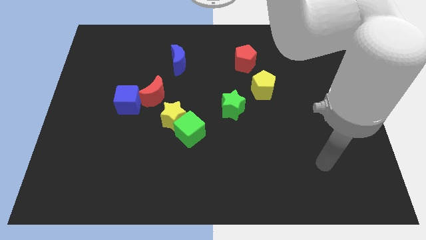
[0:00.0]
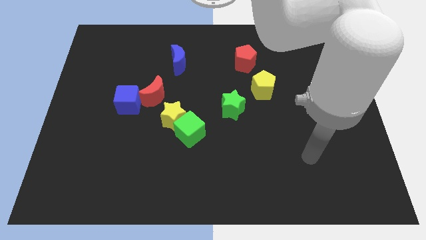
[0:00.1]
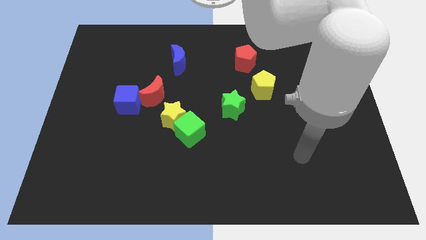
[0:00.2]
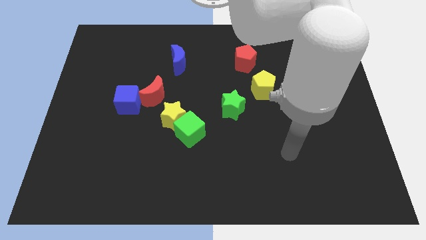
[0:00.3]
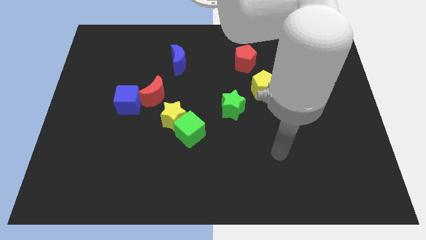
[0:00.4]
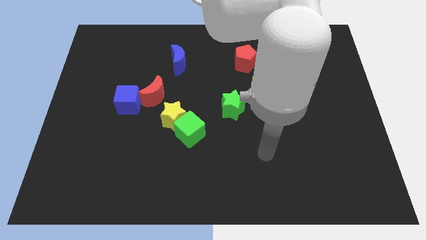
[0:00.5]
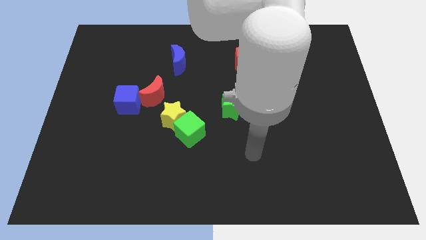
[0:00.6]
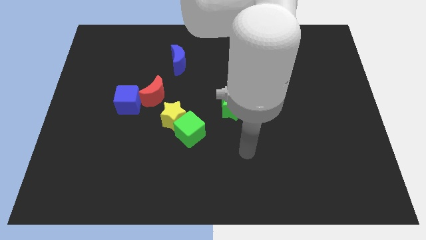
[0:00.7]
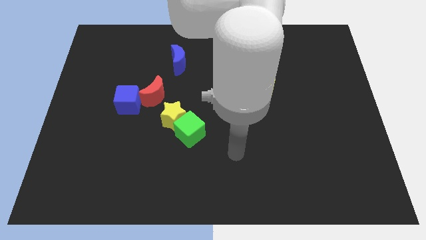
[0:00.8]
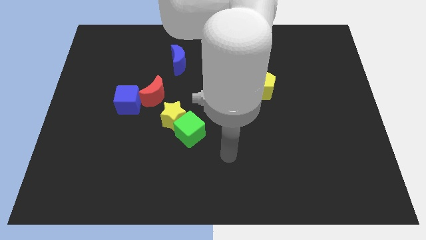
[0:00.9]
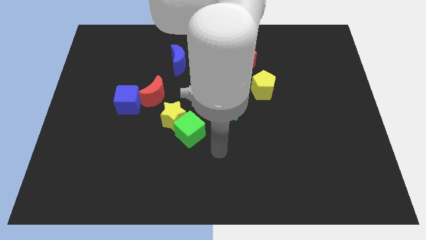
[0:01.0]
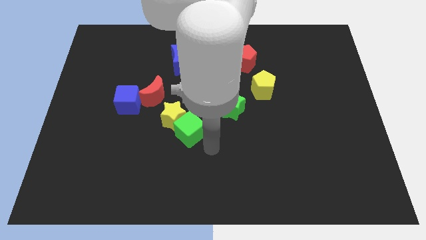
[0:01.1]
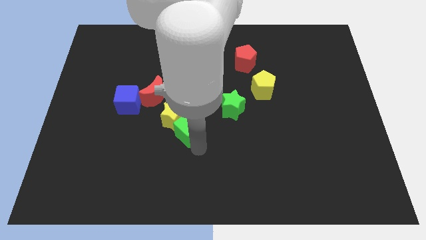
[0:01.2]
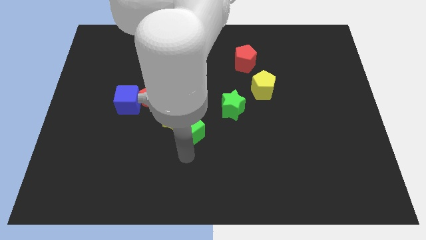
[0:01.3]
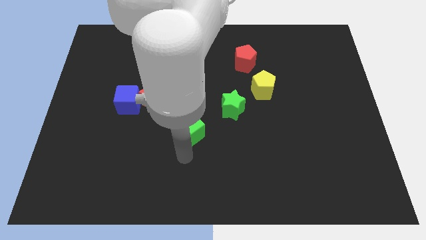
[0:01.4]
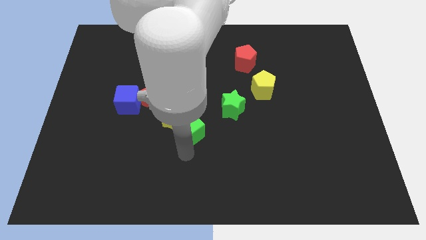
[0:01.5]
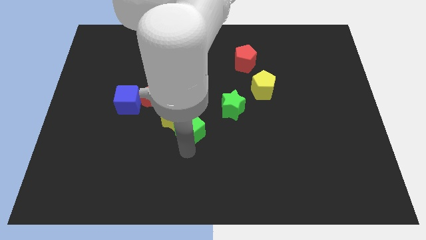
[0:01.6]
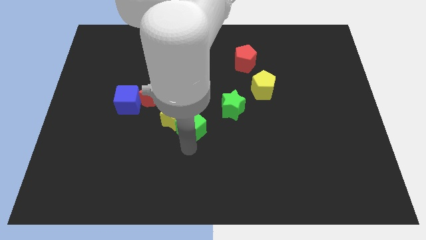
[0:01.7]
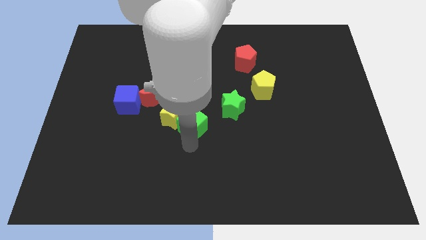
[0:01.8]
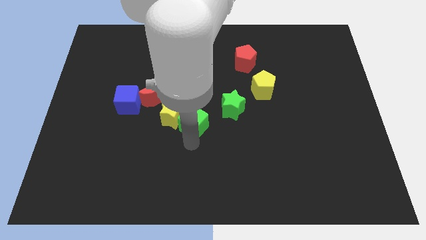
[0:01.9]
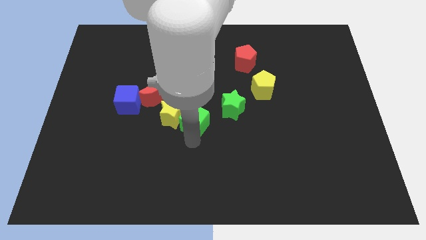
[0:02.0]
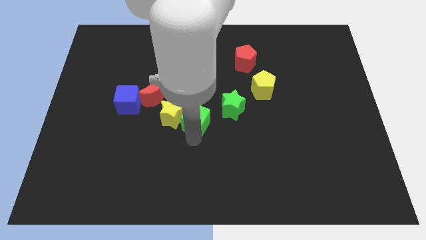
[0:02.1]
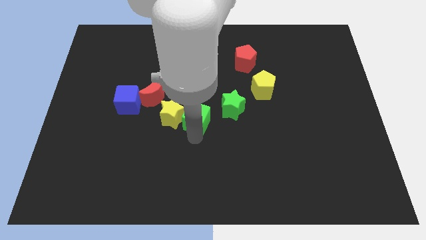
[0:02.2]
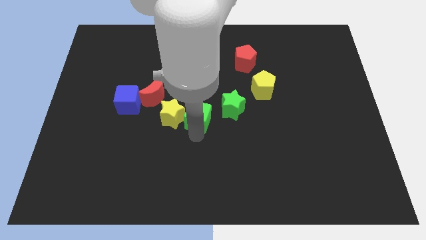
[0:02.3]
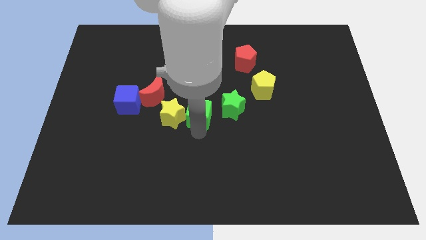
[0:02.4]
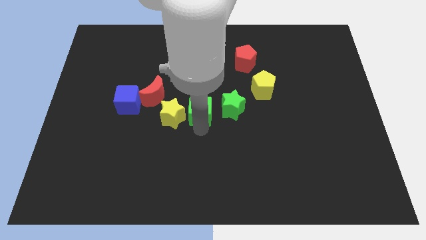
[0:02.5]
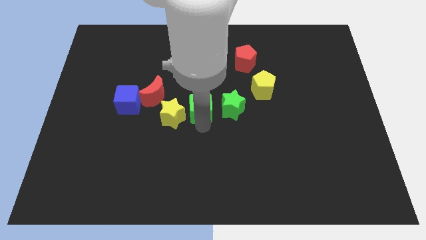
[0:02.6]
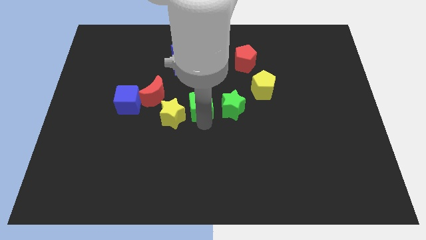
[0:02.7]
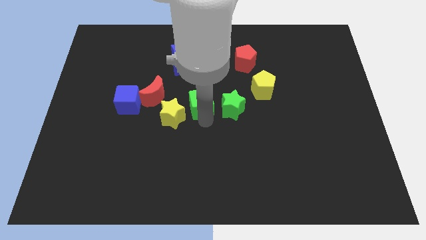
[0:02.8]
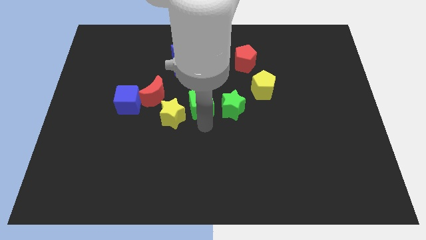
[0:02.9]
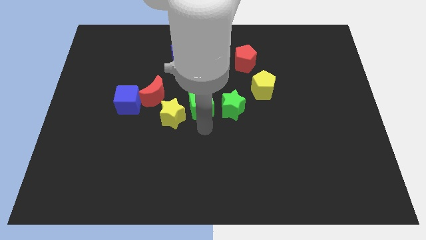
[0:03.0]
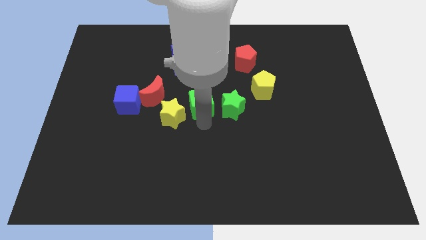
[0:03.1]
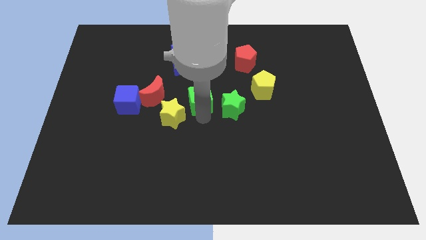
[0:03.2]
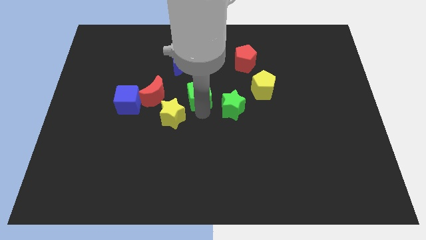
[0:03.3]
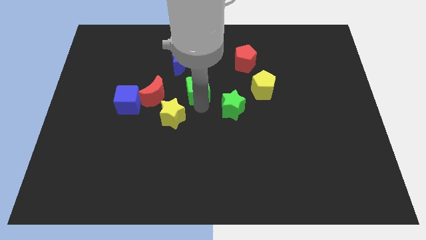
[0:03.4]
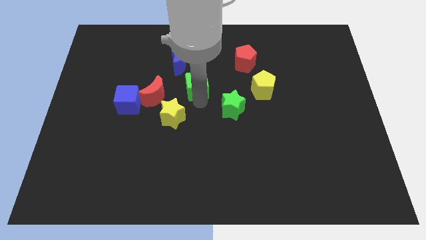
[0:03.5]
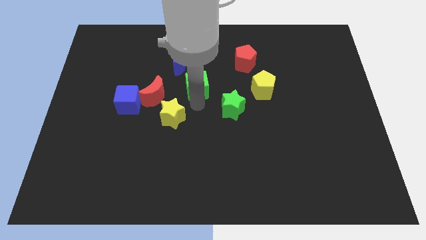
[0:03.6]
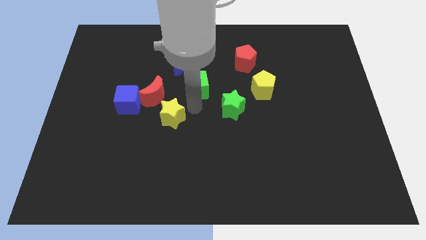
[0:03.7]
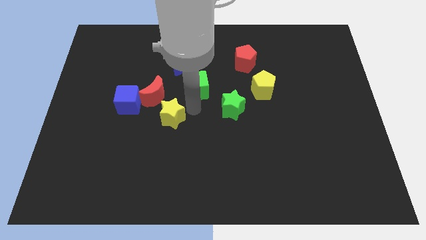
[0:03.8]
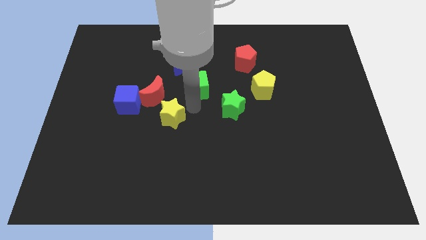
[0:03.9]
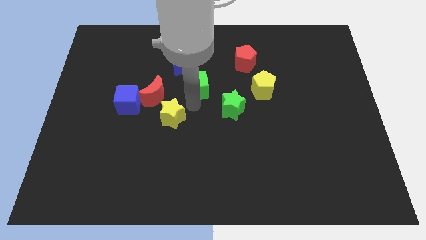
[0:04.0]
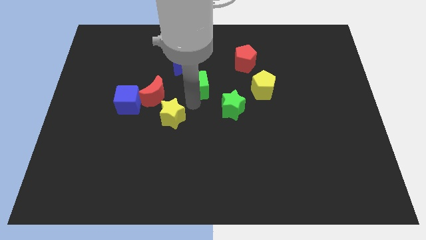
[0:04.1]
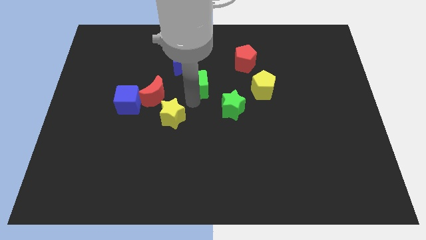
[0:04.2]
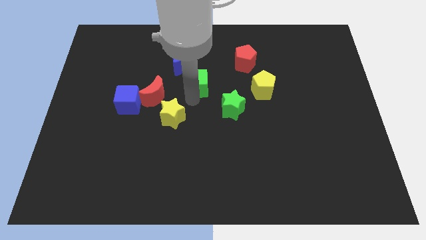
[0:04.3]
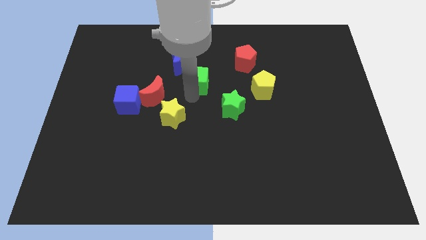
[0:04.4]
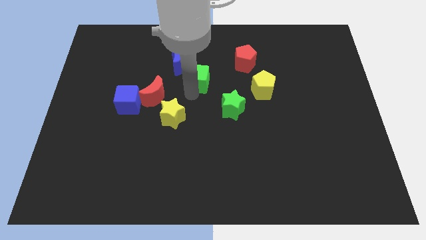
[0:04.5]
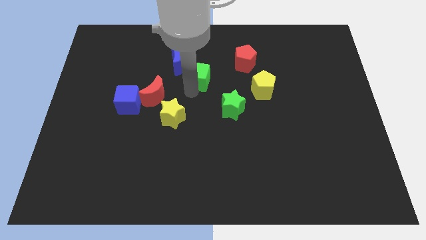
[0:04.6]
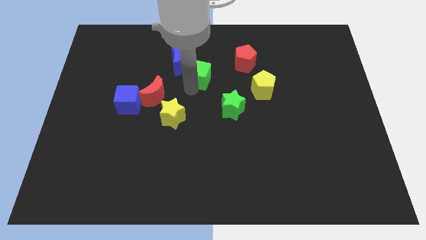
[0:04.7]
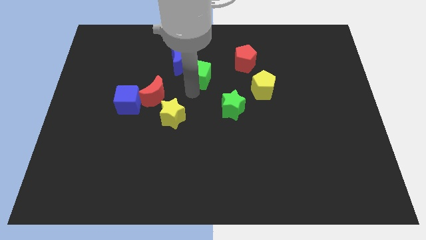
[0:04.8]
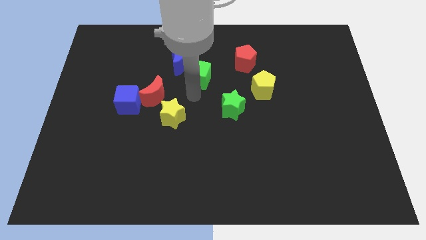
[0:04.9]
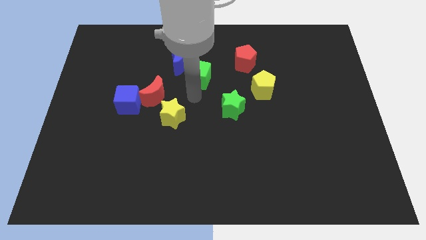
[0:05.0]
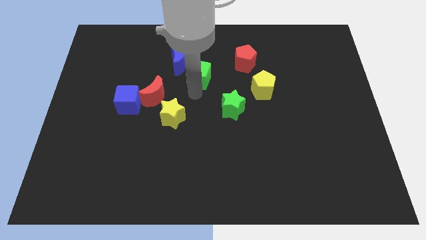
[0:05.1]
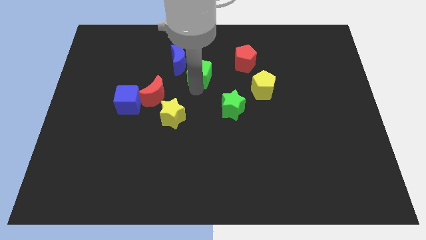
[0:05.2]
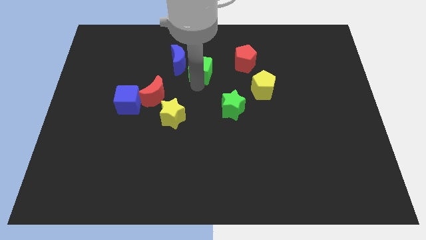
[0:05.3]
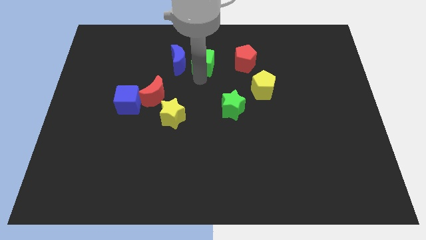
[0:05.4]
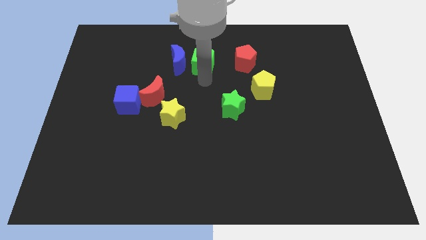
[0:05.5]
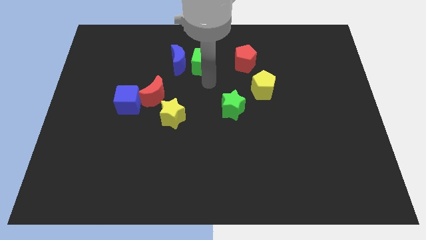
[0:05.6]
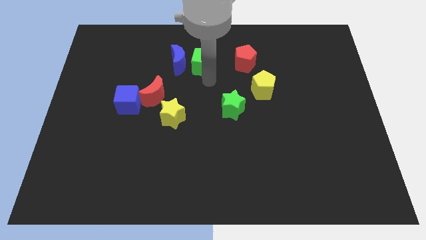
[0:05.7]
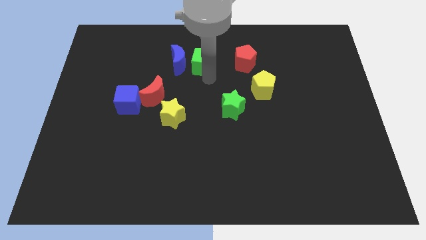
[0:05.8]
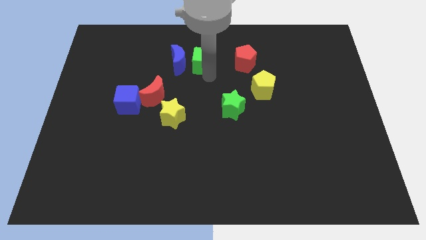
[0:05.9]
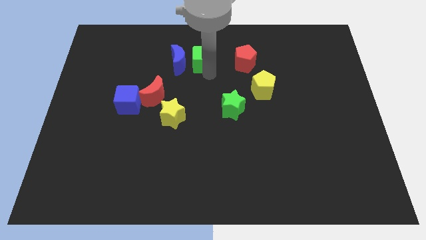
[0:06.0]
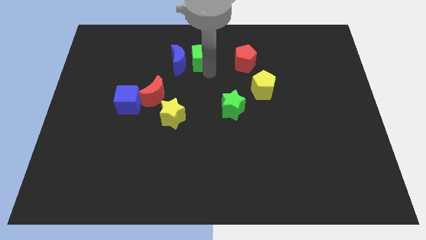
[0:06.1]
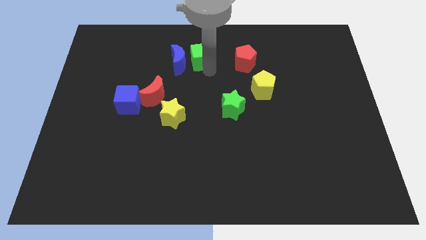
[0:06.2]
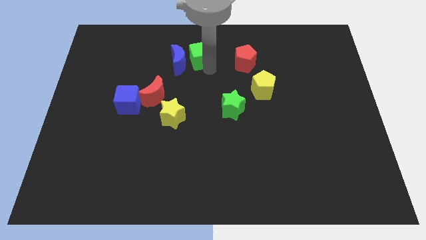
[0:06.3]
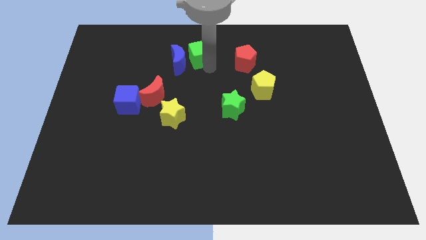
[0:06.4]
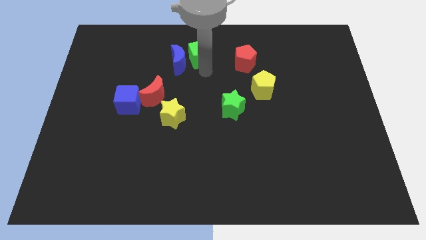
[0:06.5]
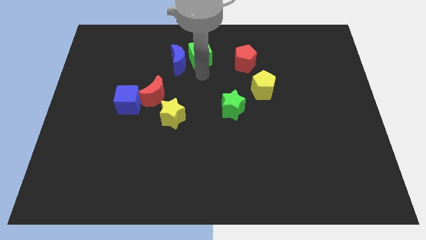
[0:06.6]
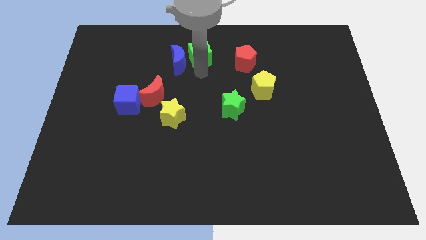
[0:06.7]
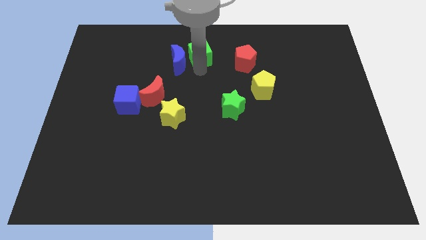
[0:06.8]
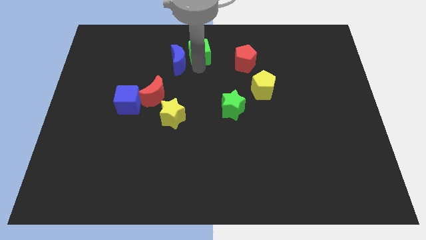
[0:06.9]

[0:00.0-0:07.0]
put the green cube to the towards your base
